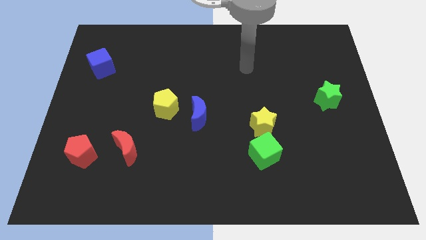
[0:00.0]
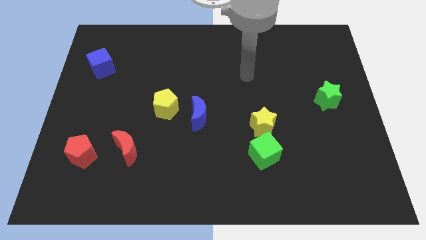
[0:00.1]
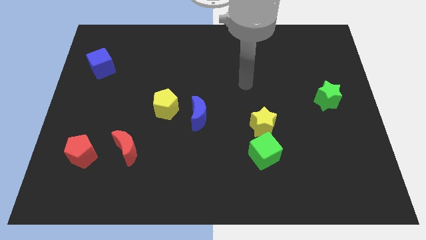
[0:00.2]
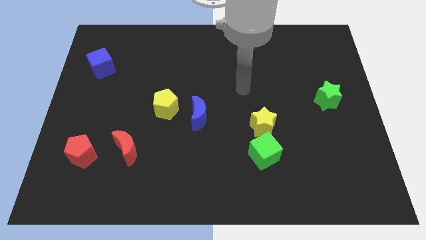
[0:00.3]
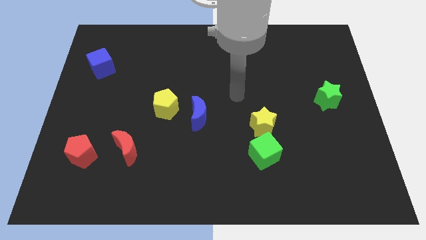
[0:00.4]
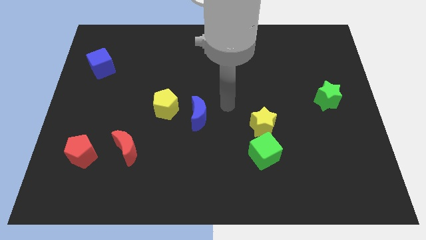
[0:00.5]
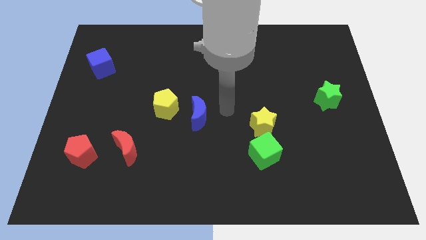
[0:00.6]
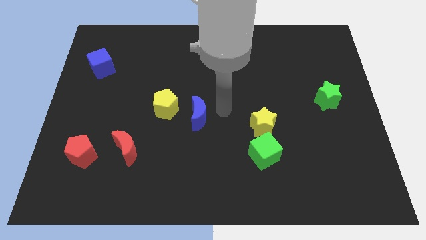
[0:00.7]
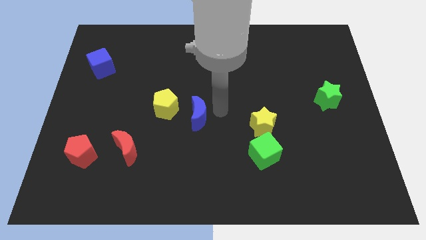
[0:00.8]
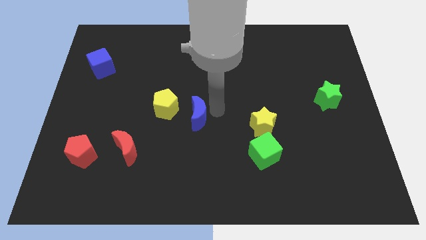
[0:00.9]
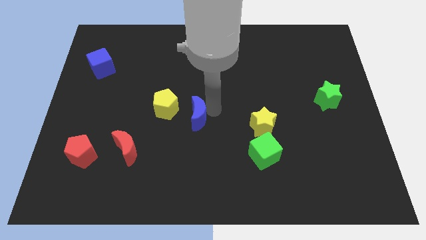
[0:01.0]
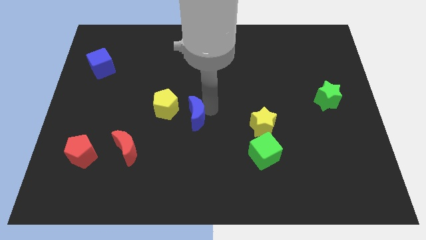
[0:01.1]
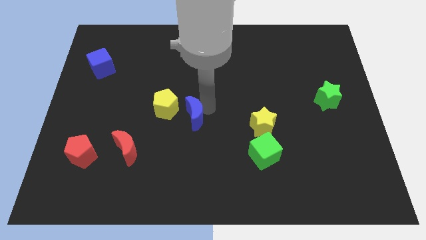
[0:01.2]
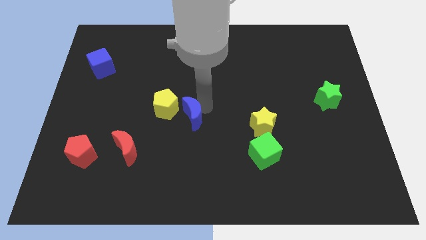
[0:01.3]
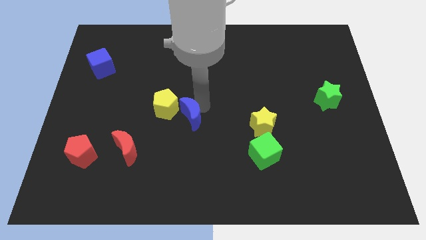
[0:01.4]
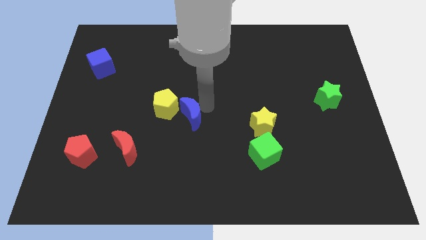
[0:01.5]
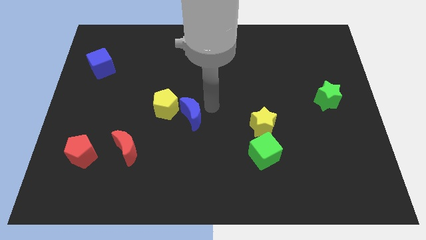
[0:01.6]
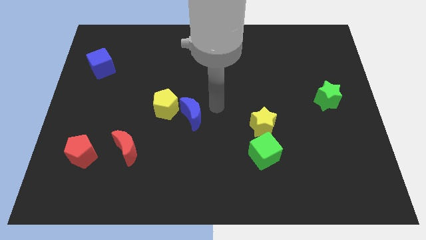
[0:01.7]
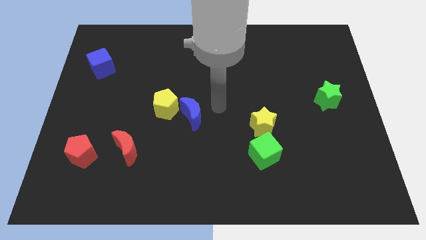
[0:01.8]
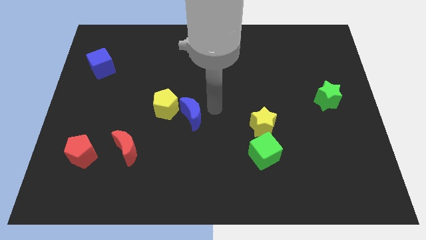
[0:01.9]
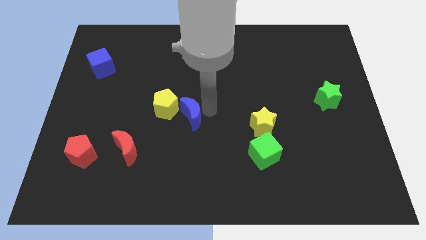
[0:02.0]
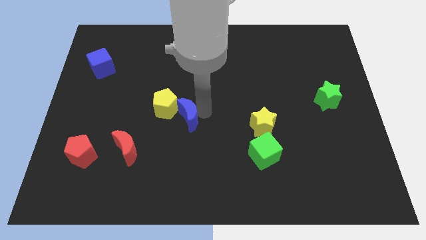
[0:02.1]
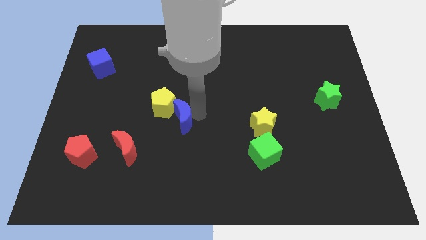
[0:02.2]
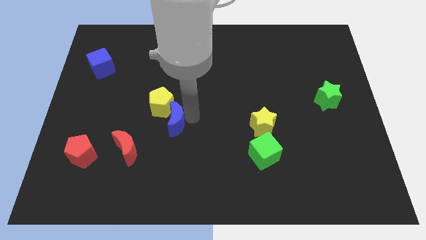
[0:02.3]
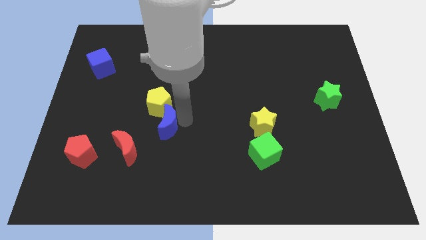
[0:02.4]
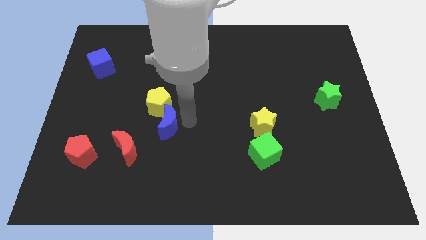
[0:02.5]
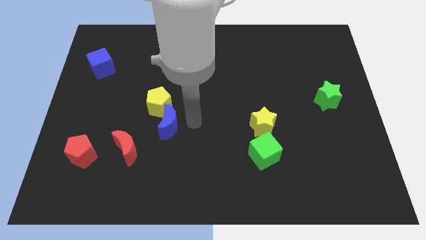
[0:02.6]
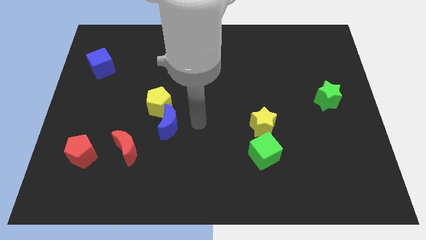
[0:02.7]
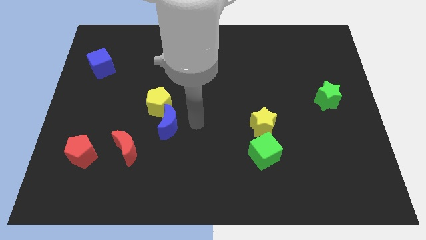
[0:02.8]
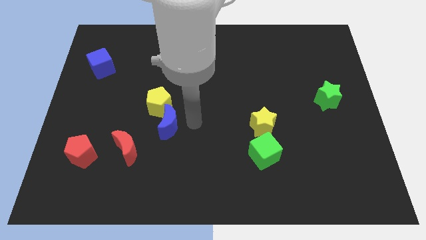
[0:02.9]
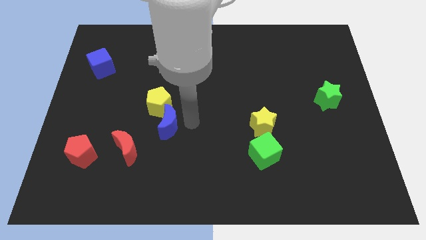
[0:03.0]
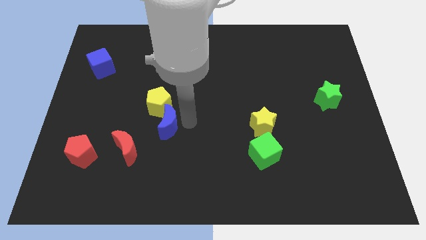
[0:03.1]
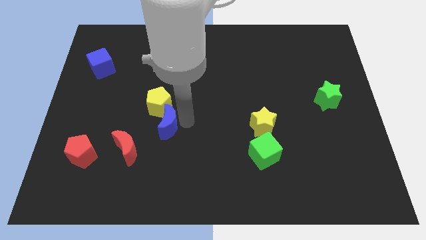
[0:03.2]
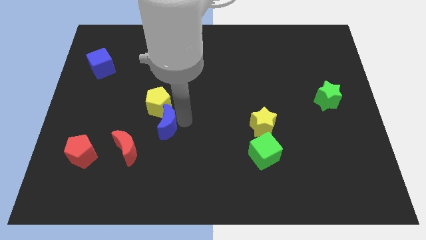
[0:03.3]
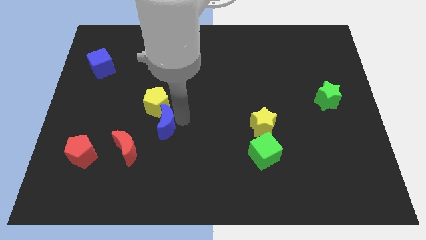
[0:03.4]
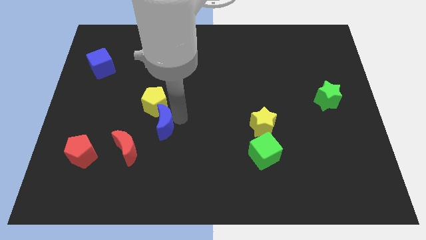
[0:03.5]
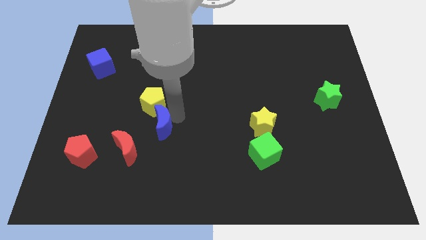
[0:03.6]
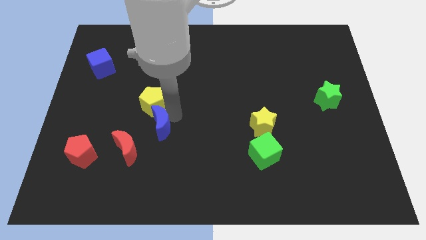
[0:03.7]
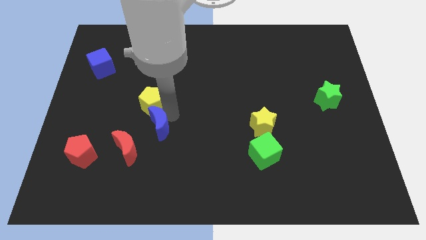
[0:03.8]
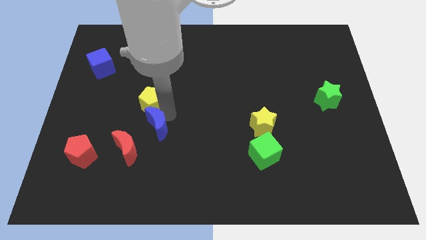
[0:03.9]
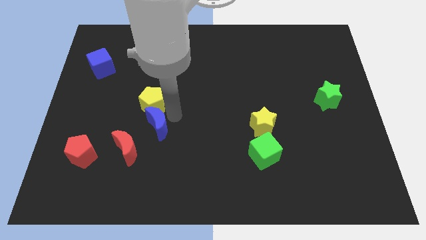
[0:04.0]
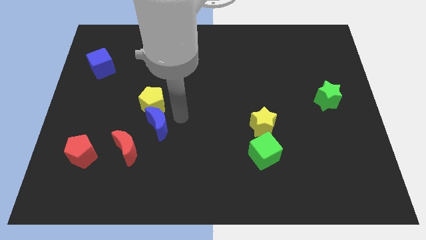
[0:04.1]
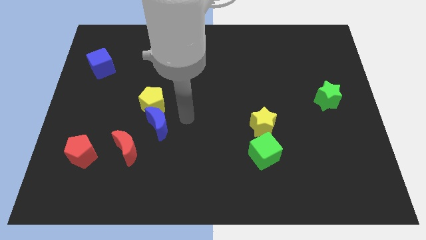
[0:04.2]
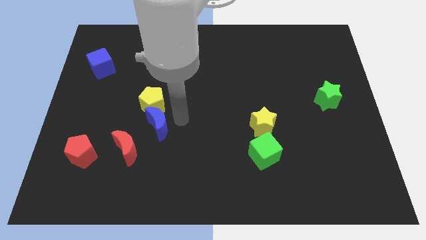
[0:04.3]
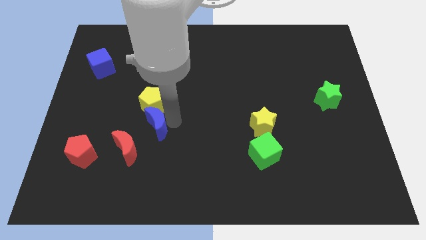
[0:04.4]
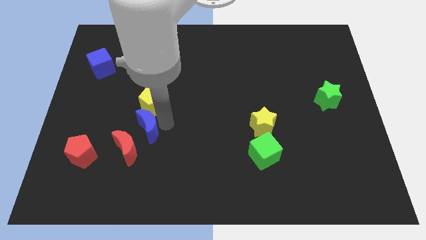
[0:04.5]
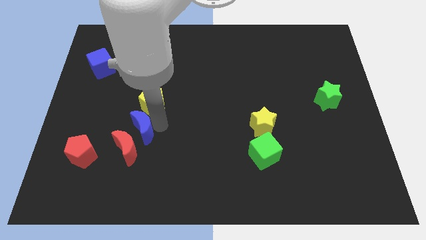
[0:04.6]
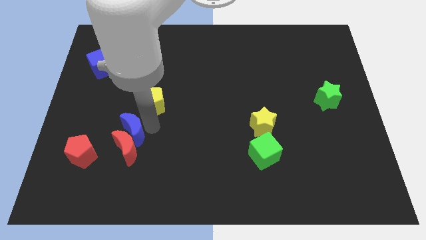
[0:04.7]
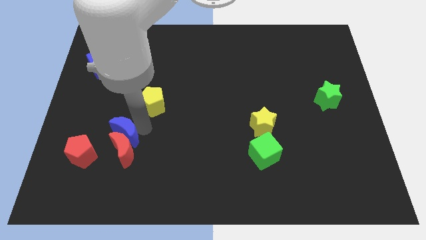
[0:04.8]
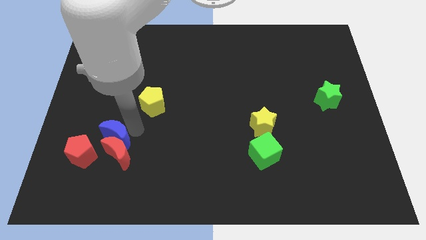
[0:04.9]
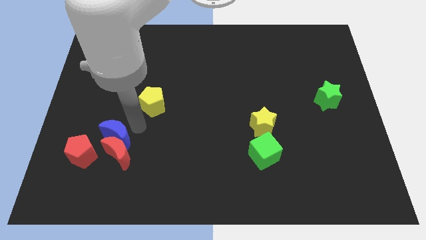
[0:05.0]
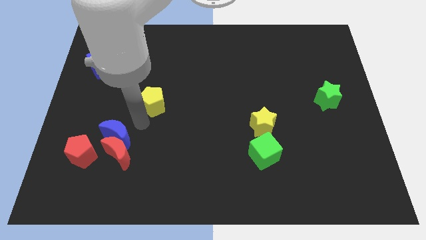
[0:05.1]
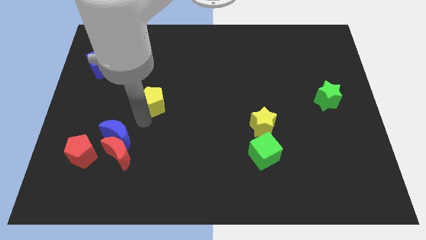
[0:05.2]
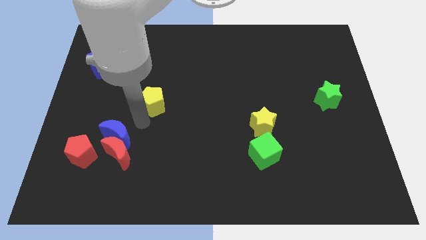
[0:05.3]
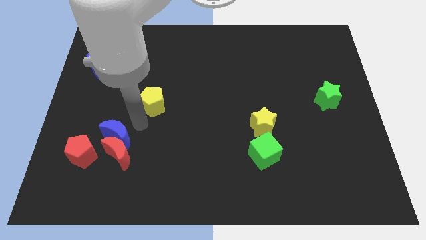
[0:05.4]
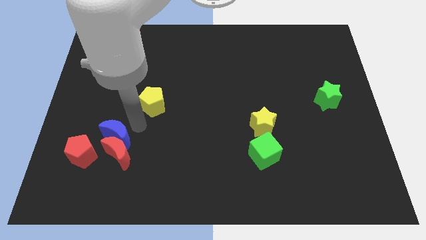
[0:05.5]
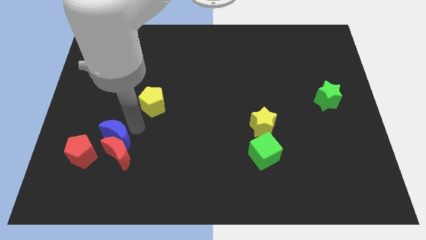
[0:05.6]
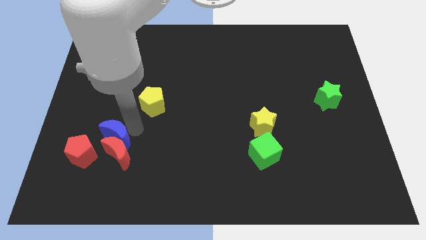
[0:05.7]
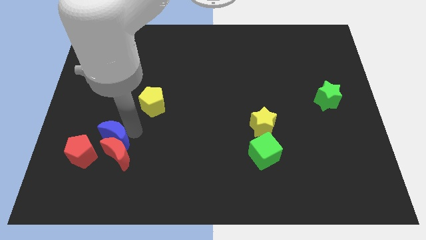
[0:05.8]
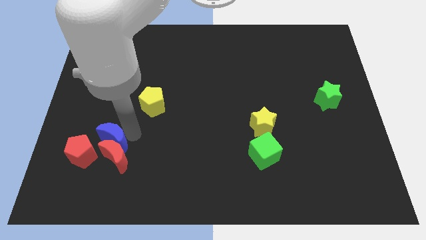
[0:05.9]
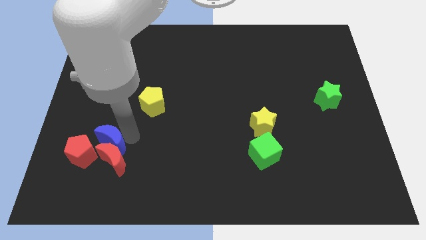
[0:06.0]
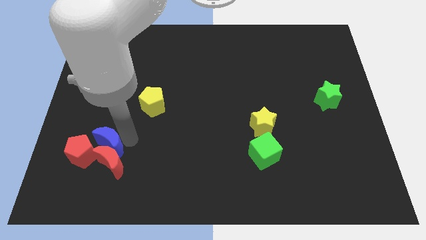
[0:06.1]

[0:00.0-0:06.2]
move the blue moon to the red pentagon
